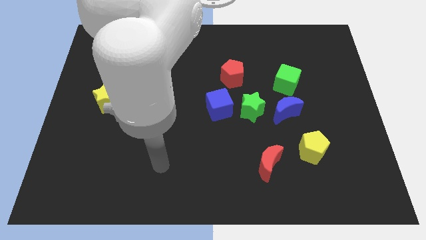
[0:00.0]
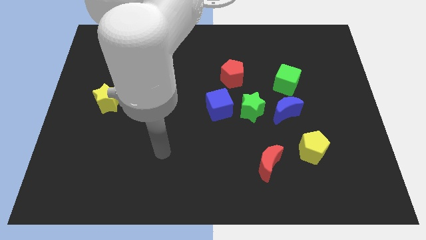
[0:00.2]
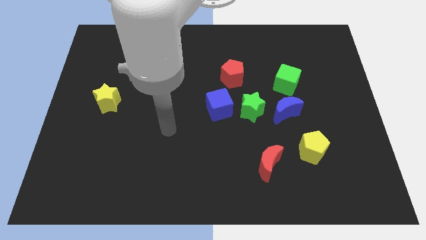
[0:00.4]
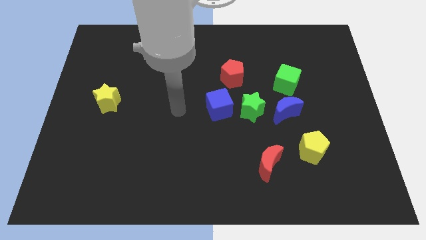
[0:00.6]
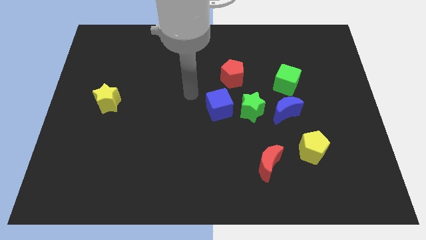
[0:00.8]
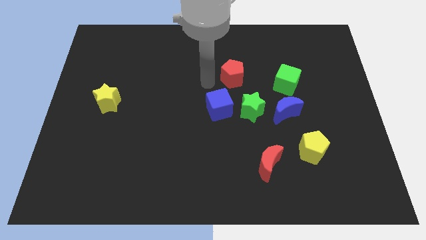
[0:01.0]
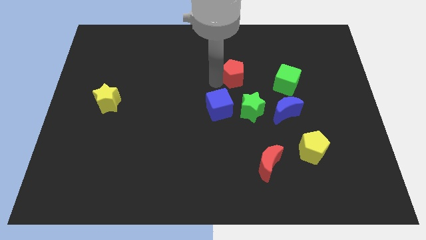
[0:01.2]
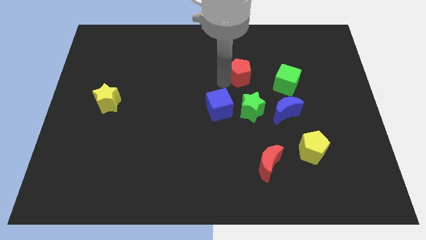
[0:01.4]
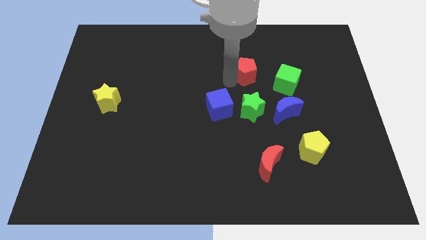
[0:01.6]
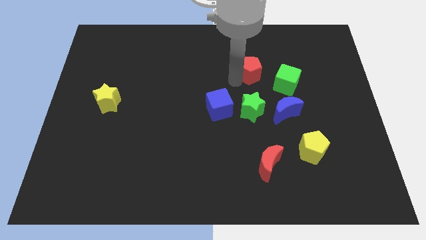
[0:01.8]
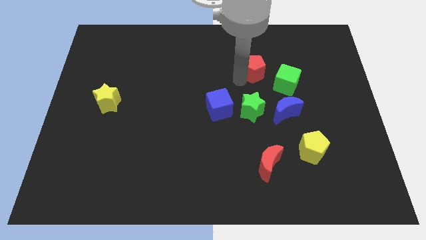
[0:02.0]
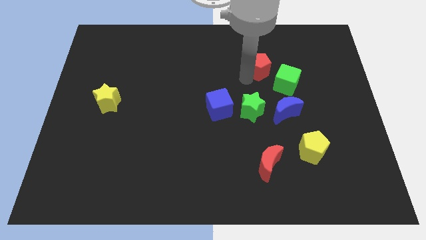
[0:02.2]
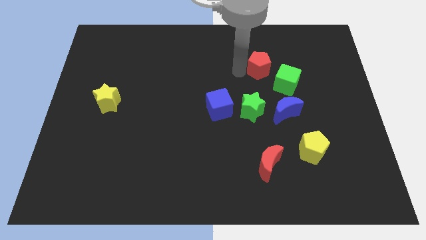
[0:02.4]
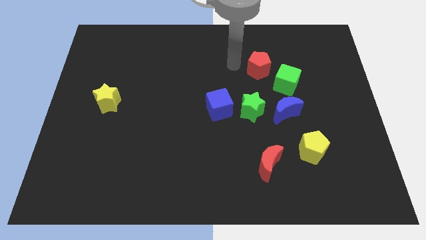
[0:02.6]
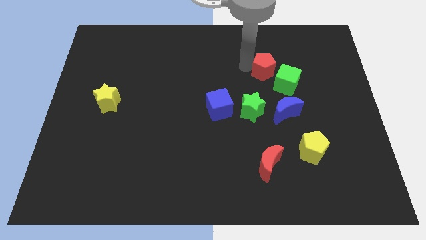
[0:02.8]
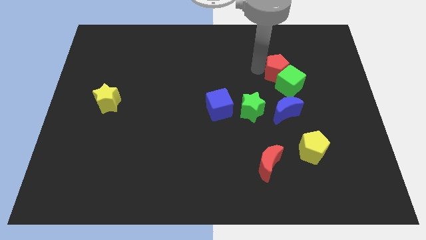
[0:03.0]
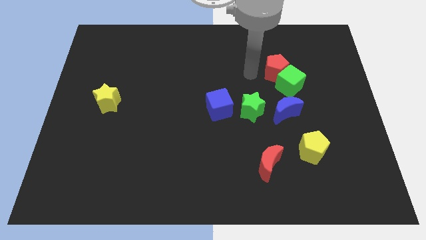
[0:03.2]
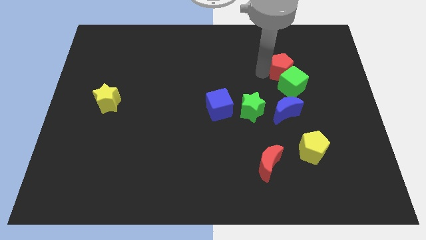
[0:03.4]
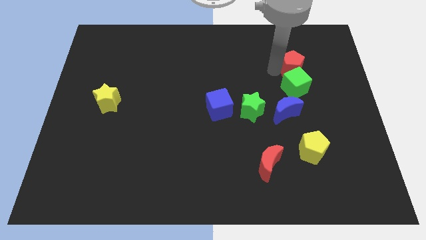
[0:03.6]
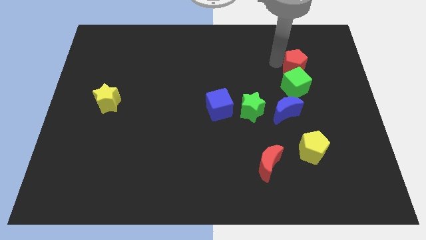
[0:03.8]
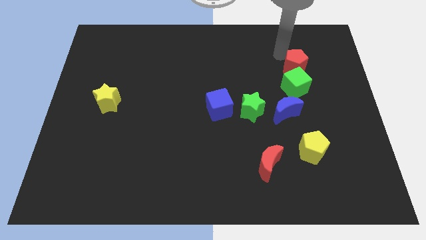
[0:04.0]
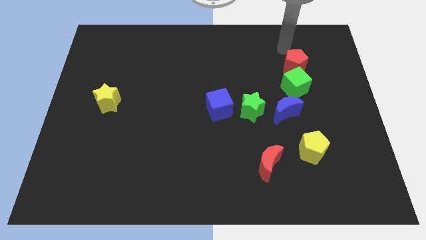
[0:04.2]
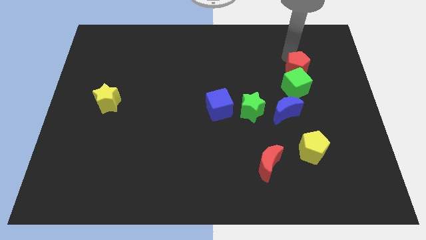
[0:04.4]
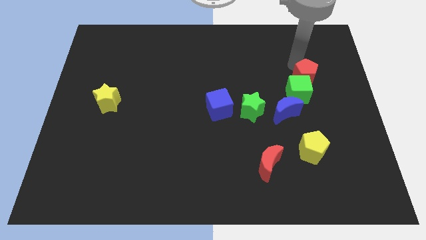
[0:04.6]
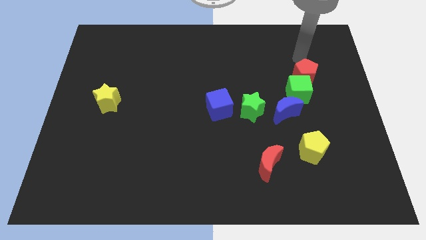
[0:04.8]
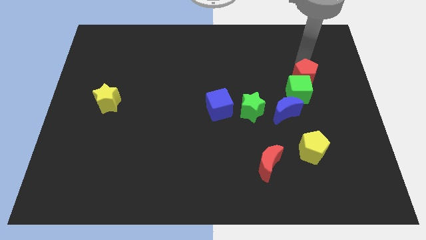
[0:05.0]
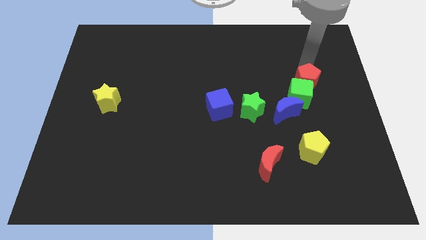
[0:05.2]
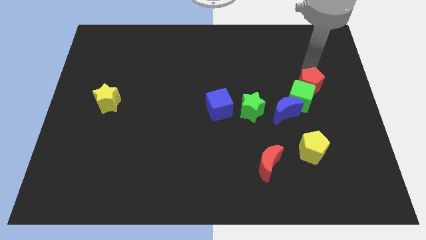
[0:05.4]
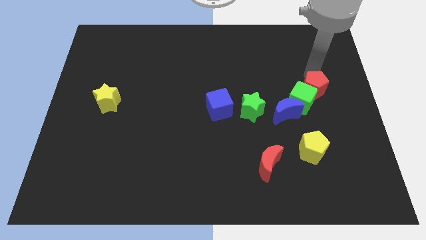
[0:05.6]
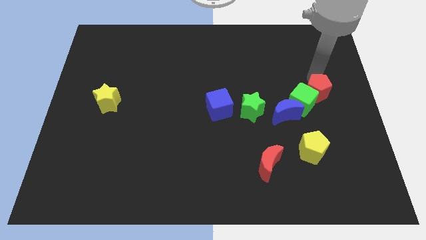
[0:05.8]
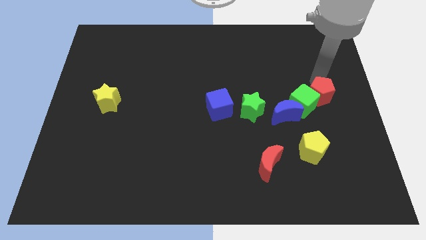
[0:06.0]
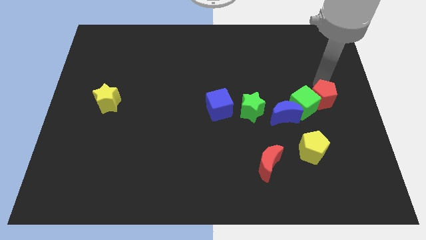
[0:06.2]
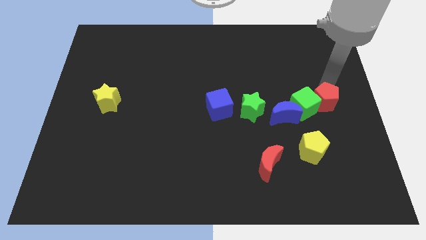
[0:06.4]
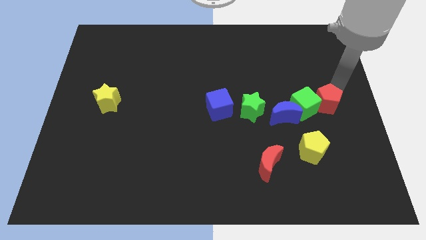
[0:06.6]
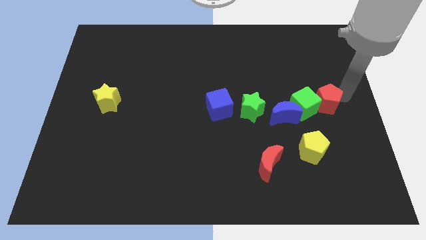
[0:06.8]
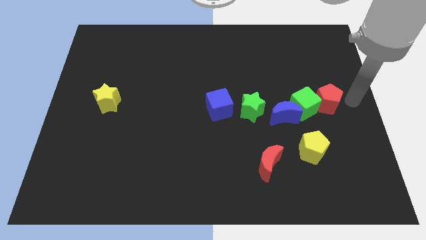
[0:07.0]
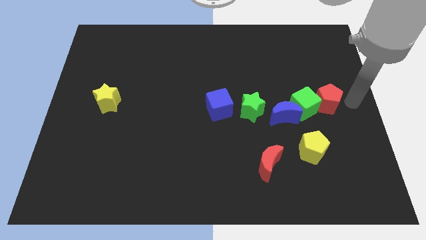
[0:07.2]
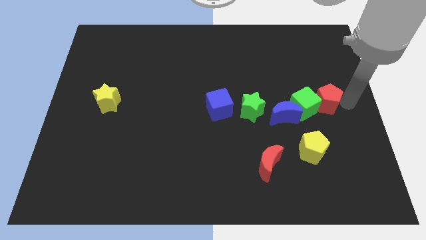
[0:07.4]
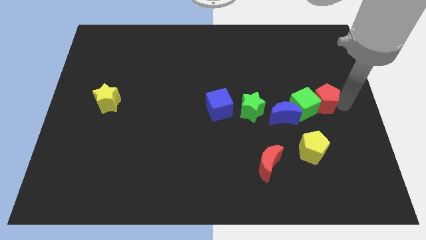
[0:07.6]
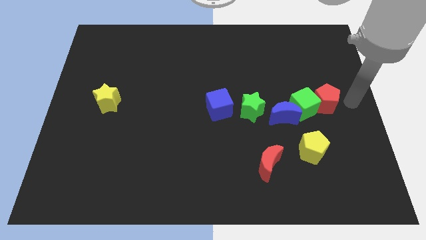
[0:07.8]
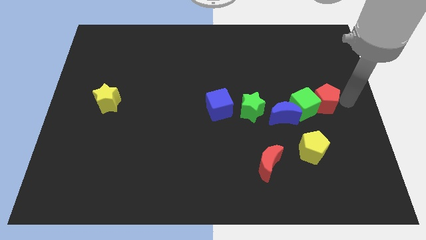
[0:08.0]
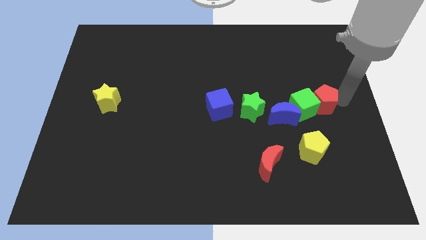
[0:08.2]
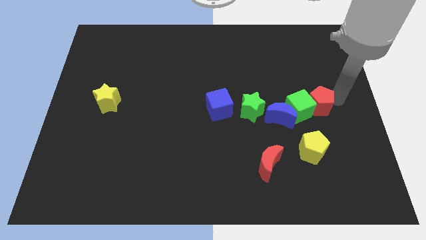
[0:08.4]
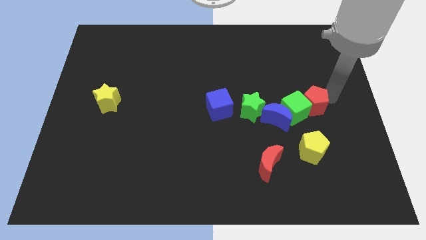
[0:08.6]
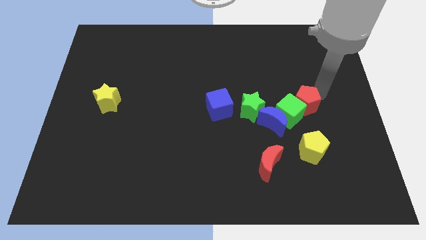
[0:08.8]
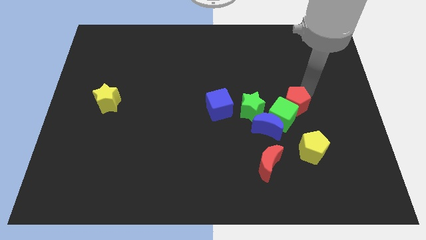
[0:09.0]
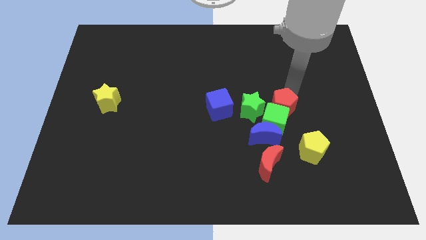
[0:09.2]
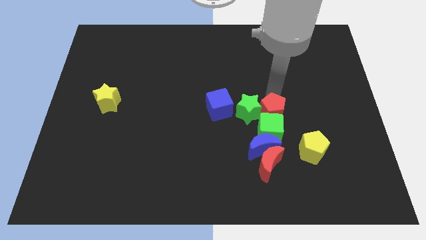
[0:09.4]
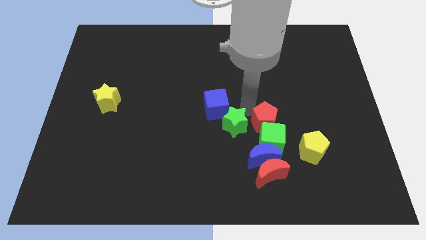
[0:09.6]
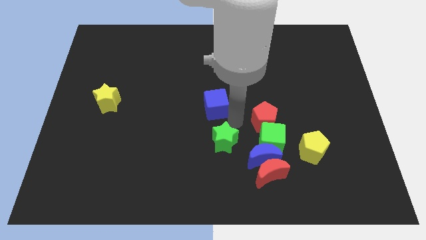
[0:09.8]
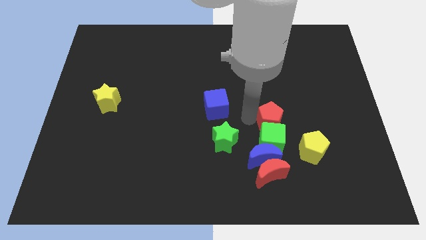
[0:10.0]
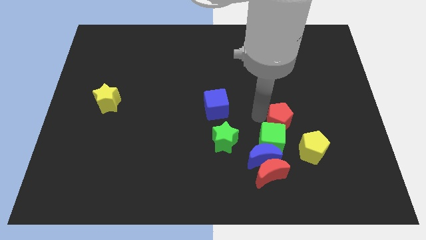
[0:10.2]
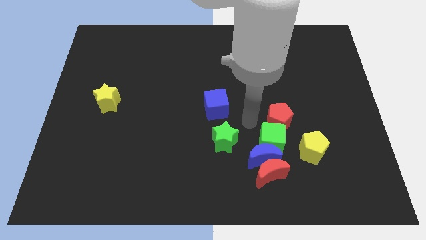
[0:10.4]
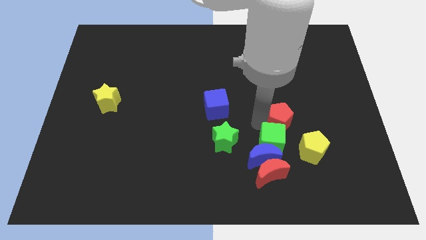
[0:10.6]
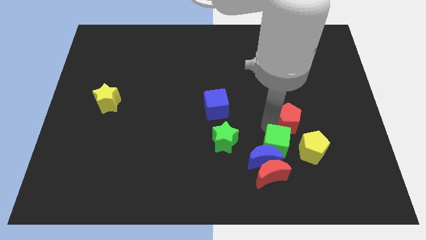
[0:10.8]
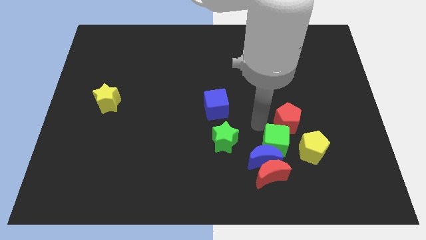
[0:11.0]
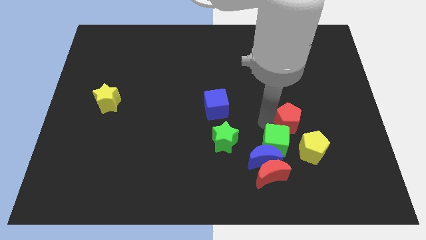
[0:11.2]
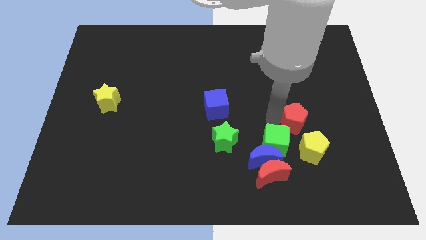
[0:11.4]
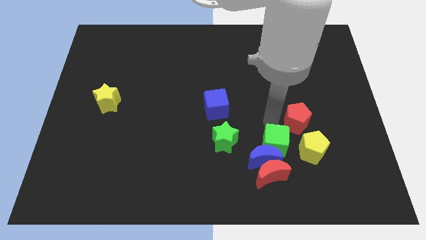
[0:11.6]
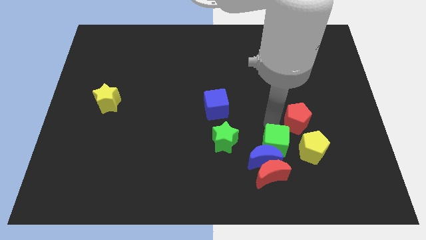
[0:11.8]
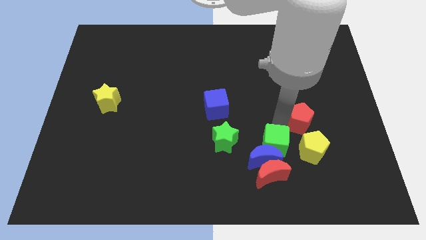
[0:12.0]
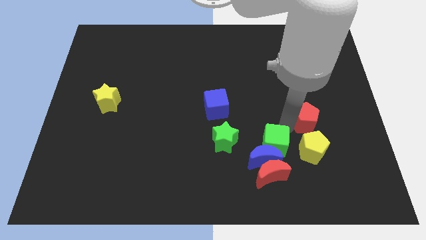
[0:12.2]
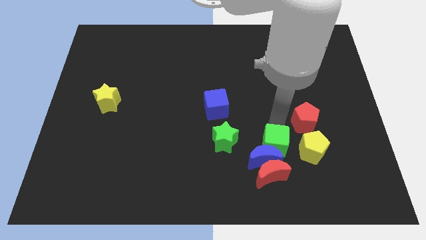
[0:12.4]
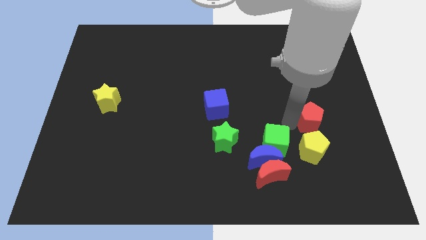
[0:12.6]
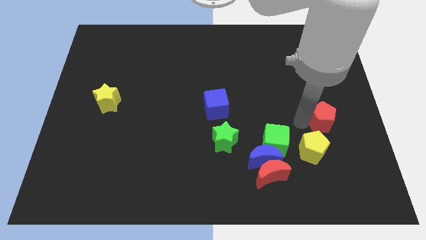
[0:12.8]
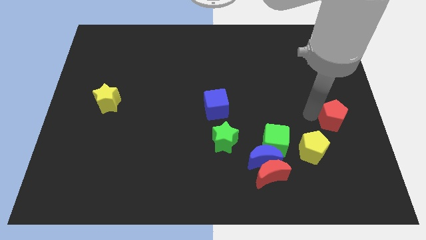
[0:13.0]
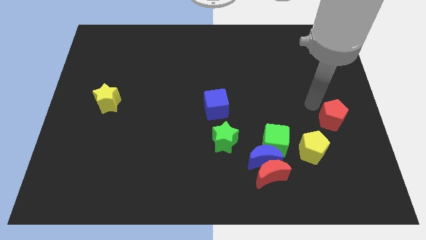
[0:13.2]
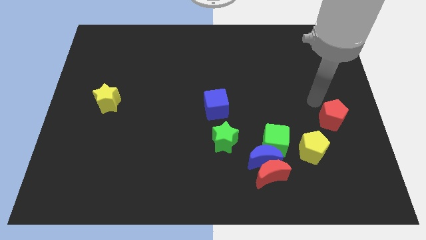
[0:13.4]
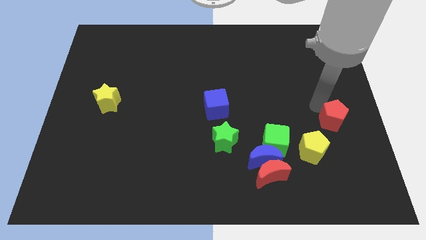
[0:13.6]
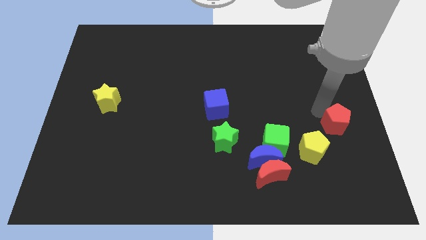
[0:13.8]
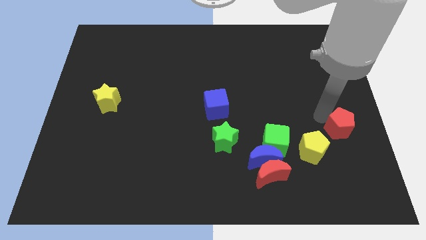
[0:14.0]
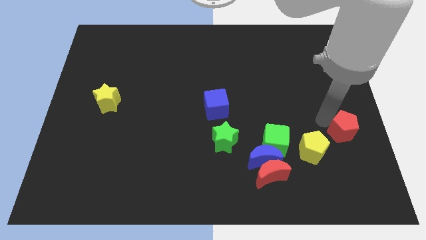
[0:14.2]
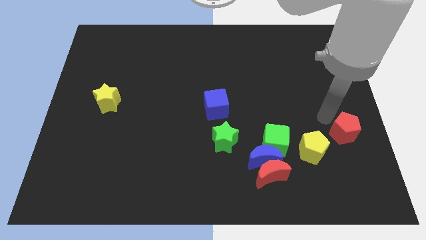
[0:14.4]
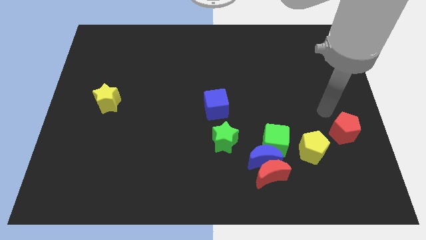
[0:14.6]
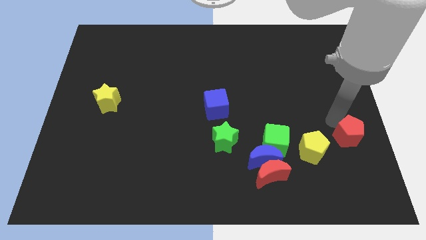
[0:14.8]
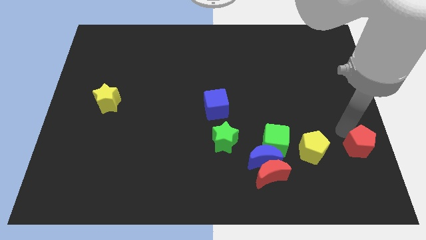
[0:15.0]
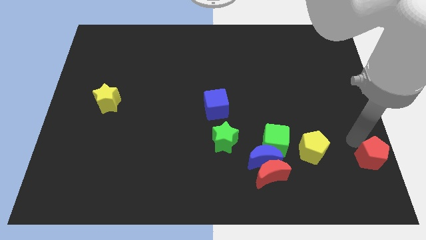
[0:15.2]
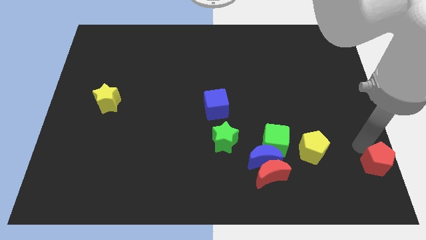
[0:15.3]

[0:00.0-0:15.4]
push the red pentagon to the bottom right of the board
